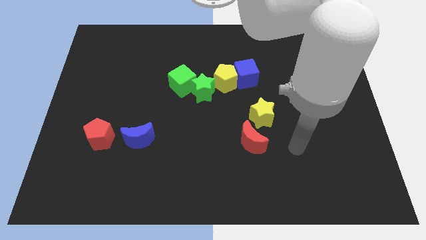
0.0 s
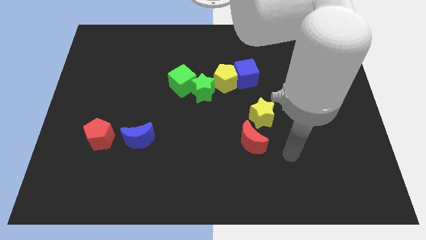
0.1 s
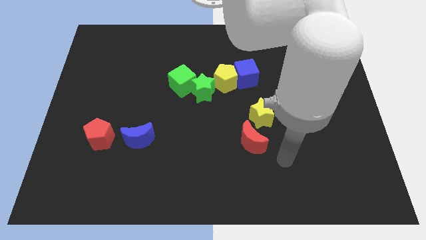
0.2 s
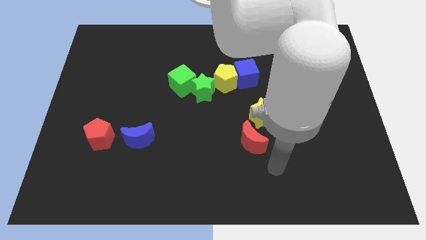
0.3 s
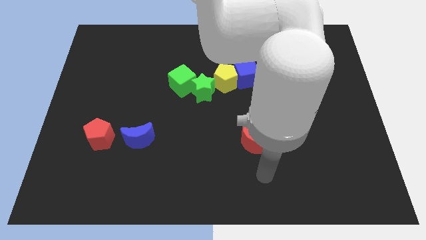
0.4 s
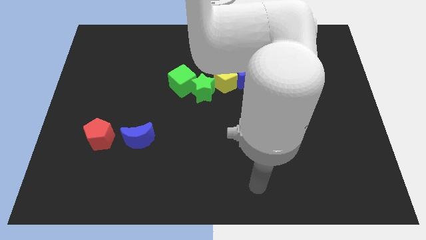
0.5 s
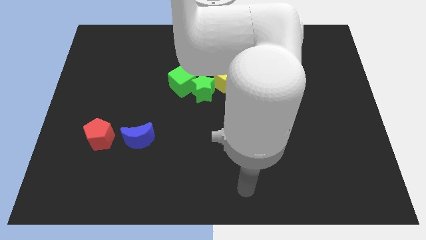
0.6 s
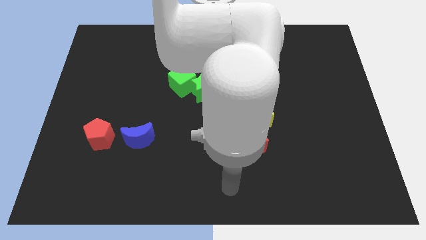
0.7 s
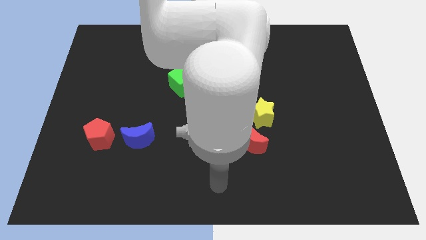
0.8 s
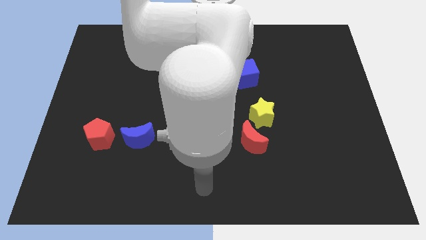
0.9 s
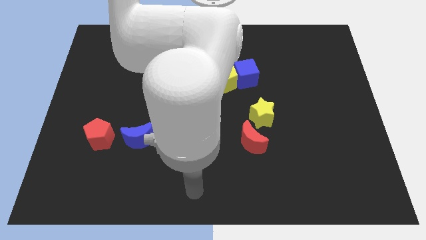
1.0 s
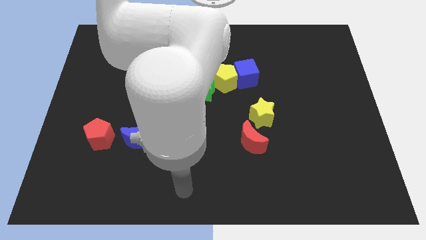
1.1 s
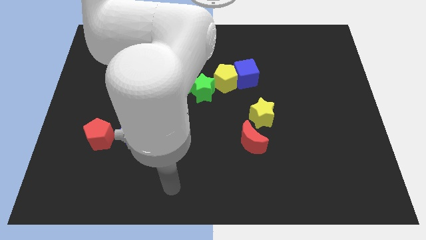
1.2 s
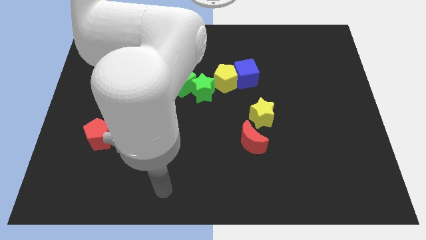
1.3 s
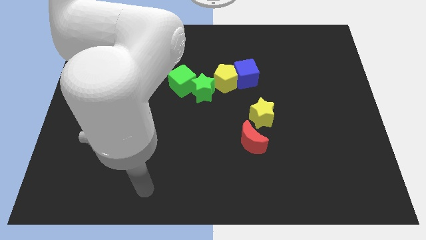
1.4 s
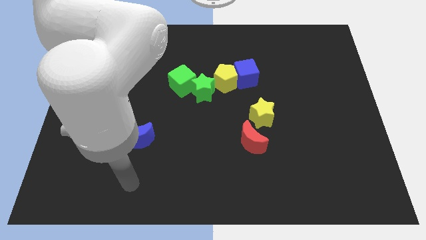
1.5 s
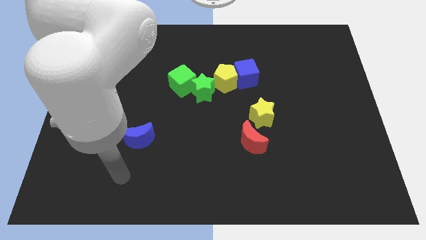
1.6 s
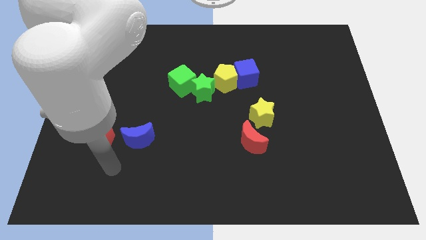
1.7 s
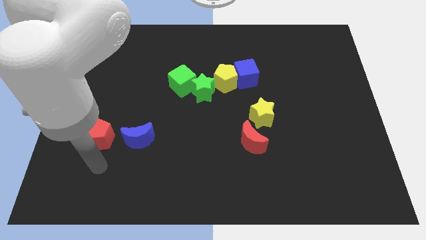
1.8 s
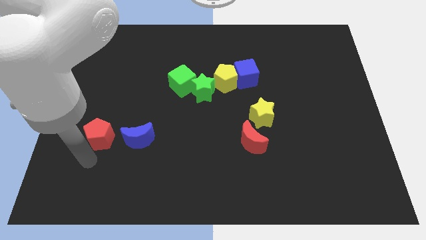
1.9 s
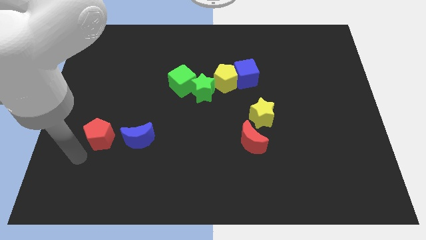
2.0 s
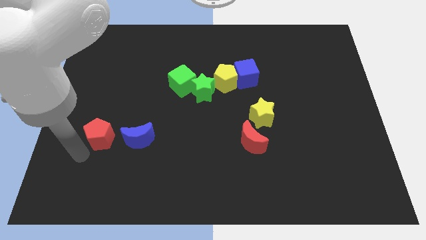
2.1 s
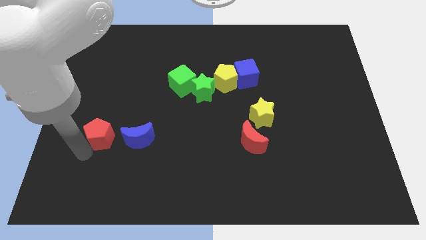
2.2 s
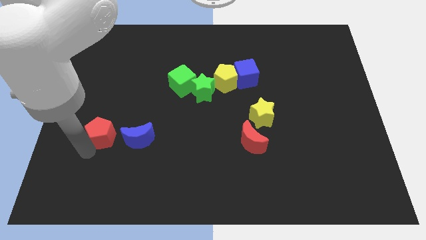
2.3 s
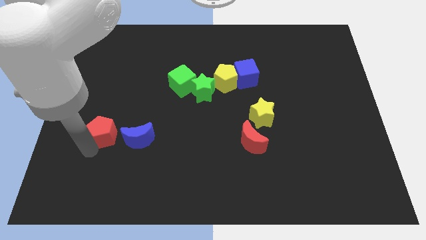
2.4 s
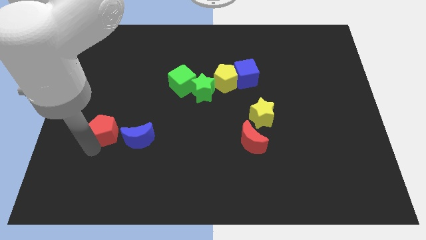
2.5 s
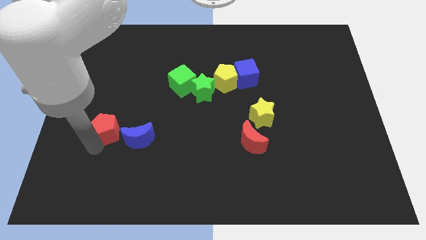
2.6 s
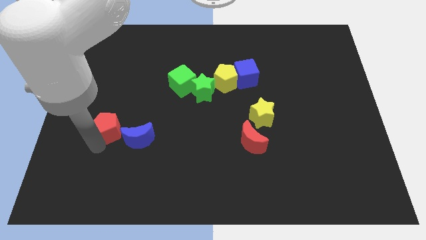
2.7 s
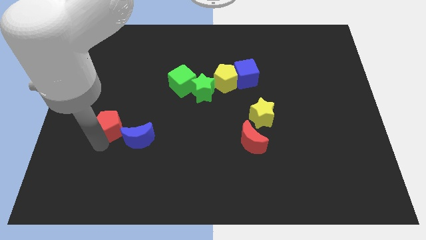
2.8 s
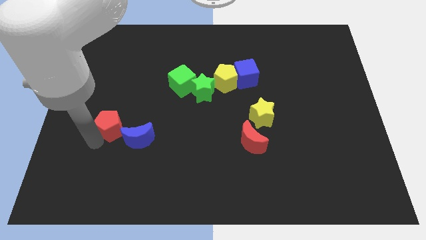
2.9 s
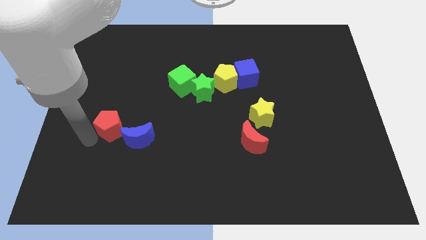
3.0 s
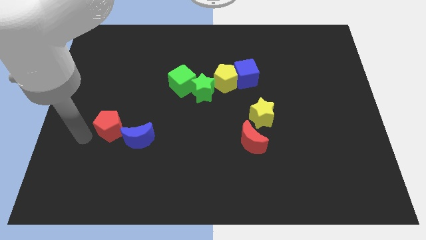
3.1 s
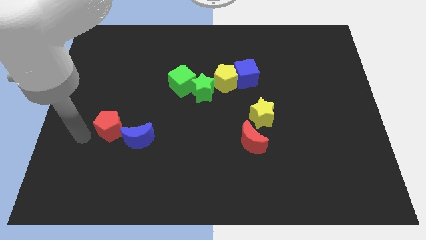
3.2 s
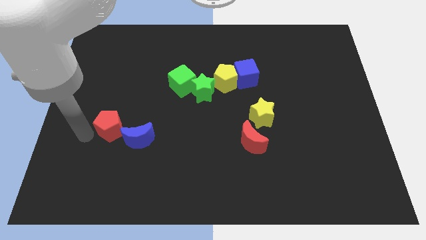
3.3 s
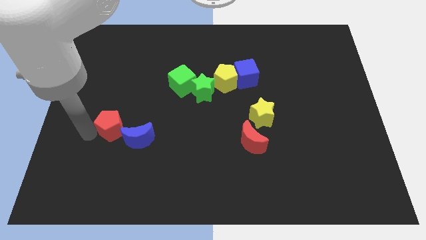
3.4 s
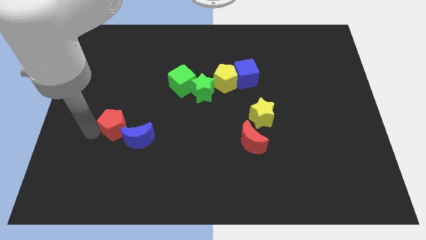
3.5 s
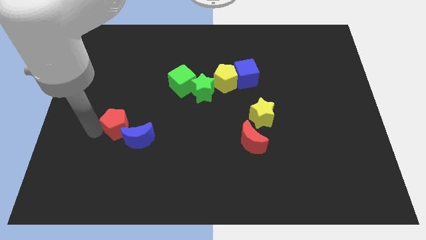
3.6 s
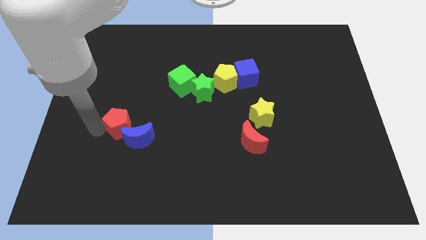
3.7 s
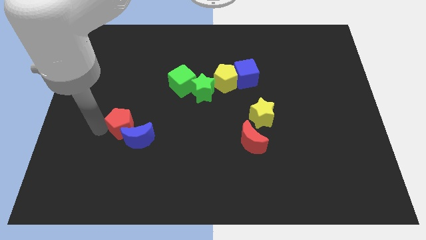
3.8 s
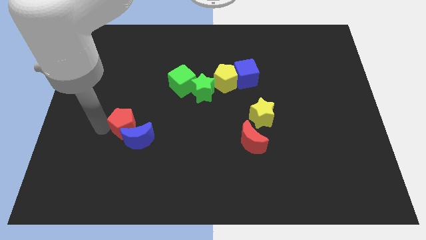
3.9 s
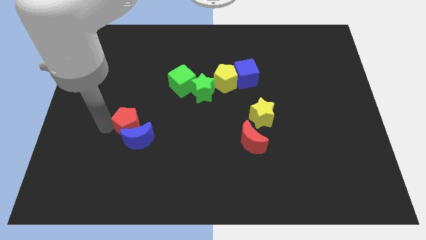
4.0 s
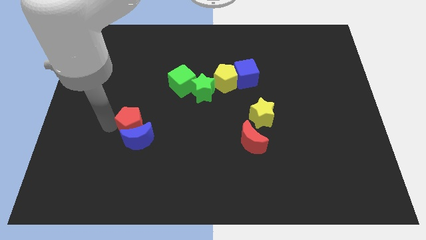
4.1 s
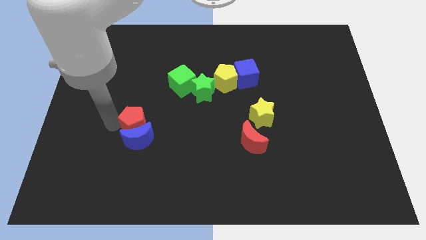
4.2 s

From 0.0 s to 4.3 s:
slide the red pentagon right somewhat

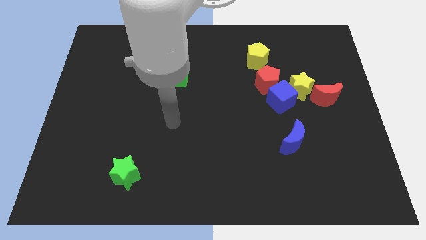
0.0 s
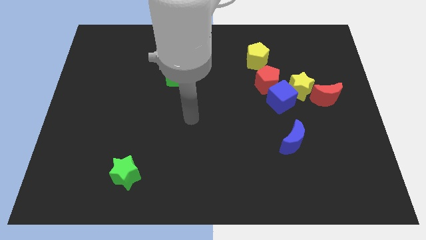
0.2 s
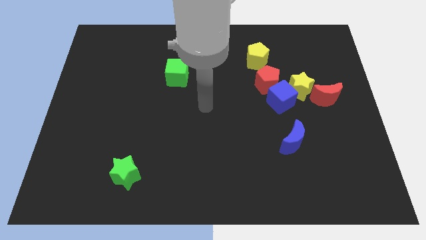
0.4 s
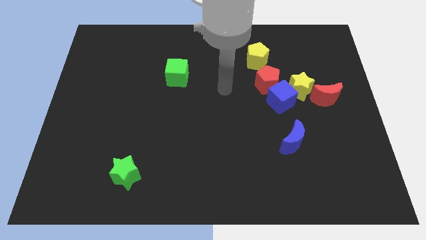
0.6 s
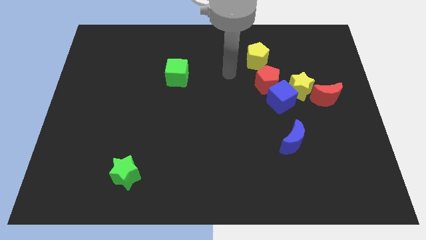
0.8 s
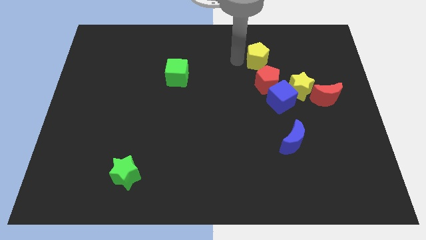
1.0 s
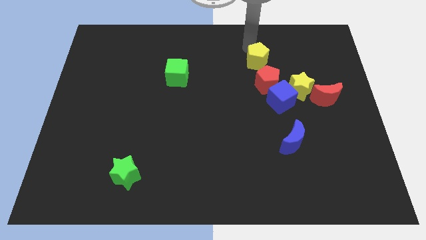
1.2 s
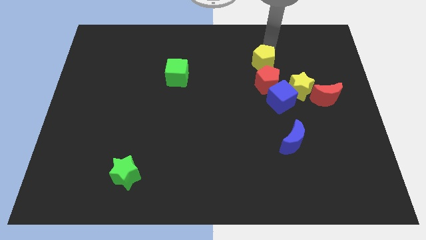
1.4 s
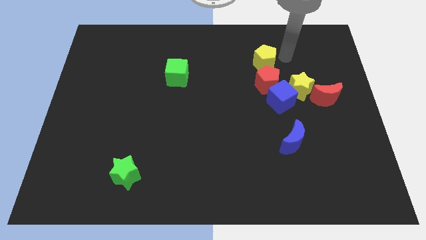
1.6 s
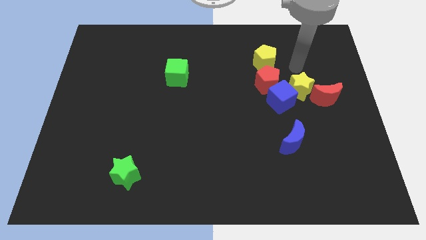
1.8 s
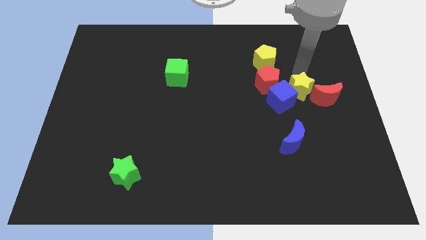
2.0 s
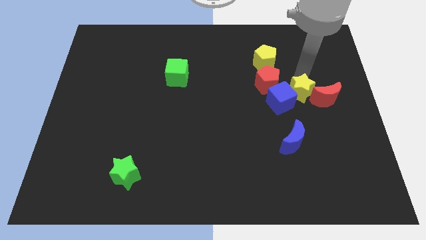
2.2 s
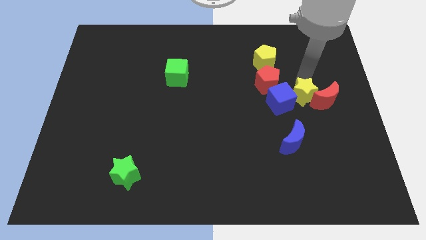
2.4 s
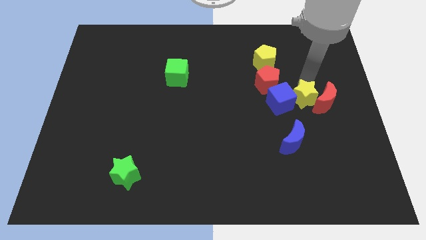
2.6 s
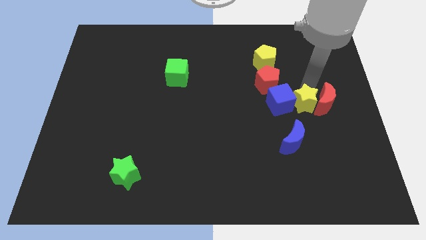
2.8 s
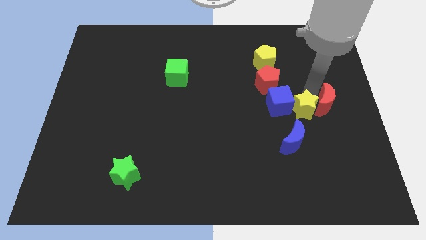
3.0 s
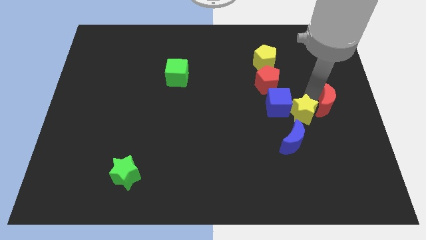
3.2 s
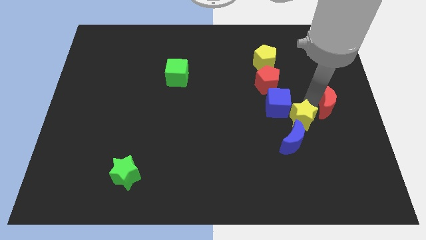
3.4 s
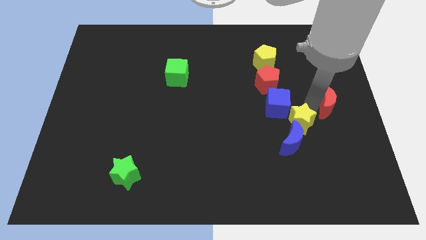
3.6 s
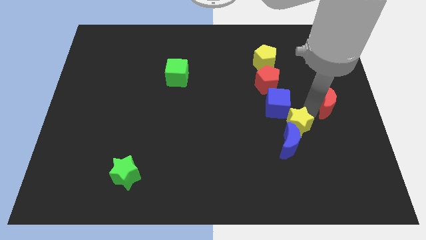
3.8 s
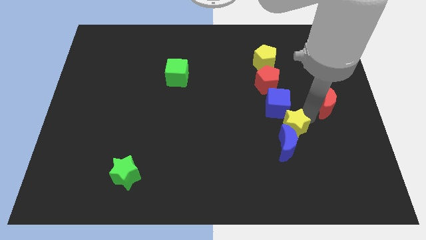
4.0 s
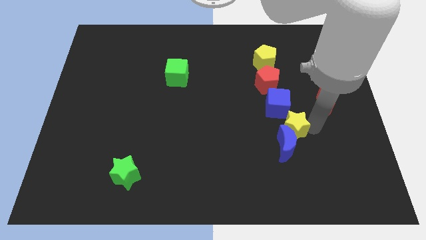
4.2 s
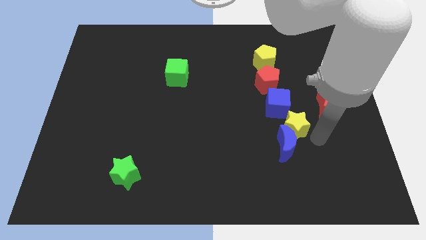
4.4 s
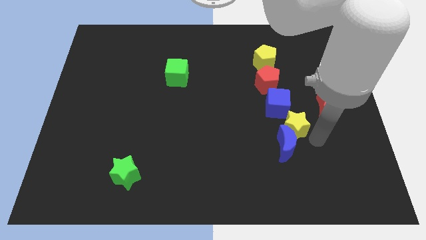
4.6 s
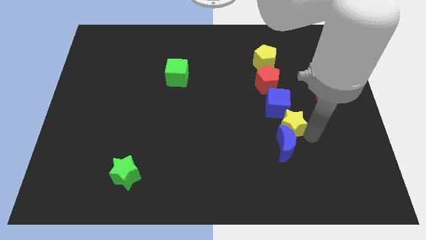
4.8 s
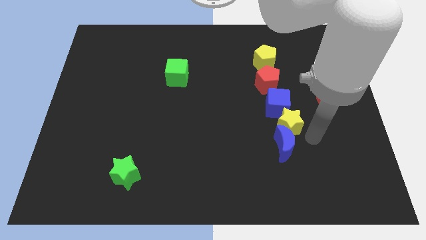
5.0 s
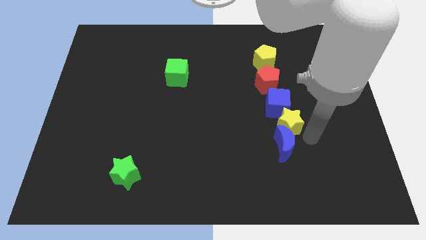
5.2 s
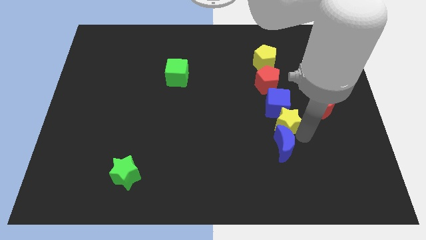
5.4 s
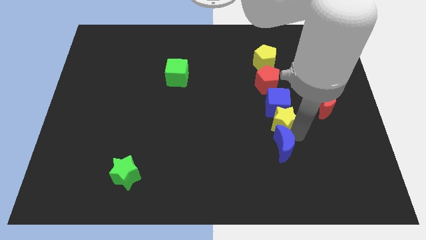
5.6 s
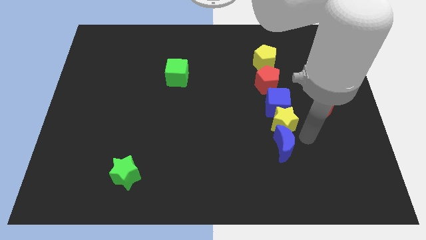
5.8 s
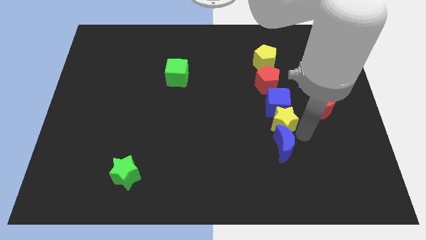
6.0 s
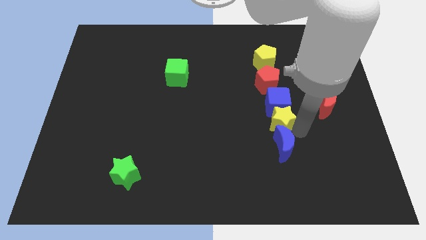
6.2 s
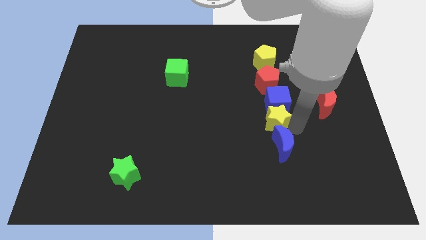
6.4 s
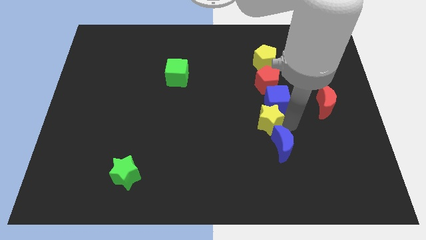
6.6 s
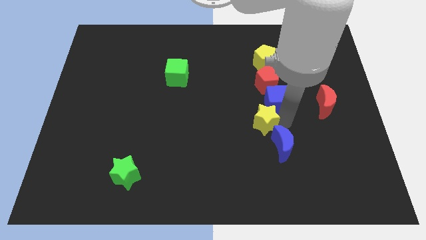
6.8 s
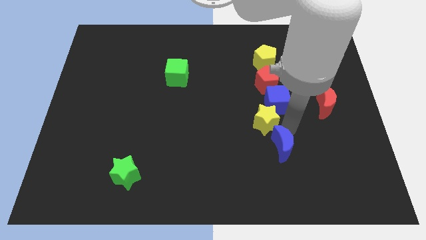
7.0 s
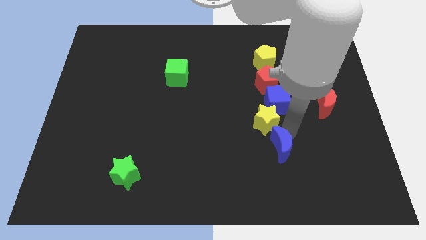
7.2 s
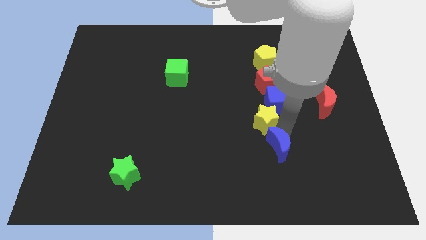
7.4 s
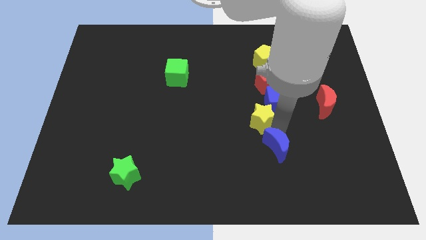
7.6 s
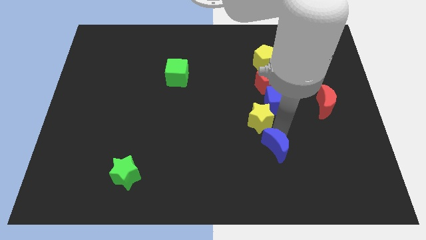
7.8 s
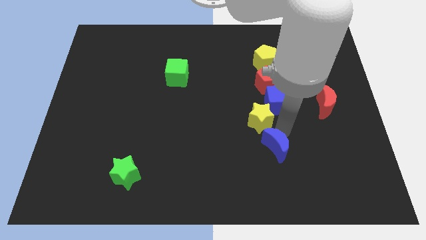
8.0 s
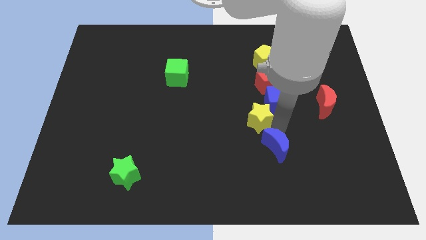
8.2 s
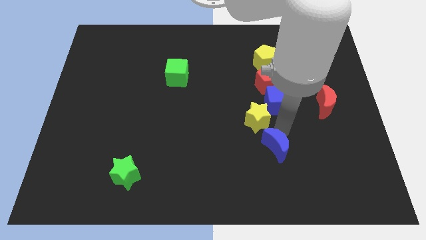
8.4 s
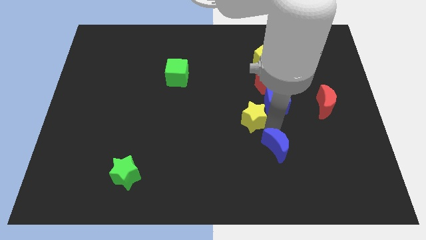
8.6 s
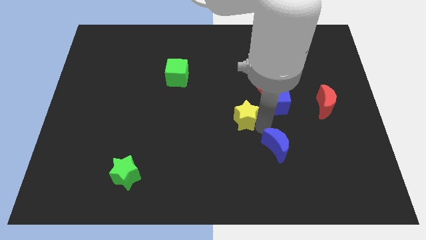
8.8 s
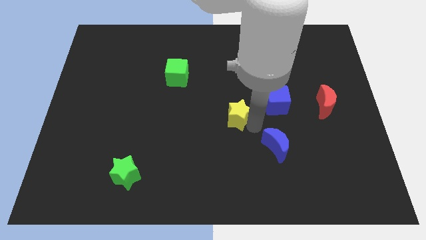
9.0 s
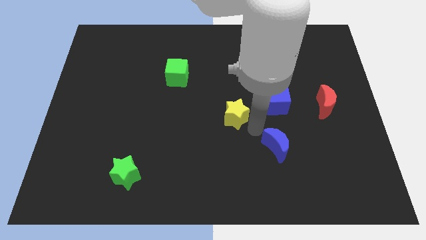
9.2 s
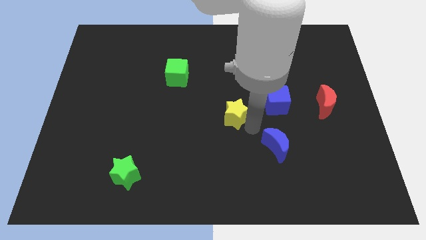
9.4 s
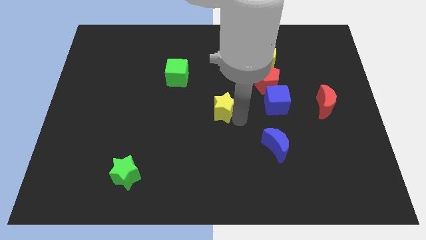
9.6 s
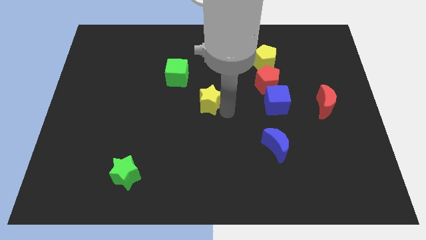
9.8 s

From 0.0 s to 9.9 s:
push the yellow star left
